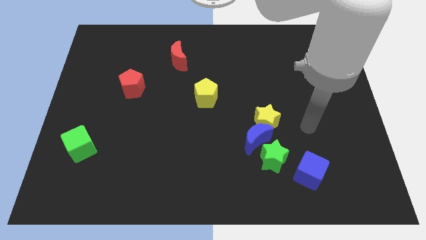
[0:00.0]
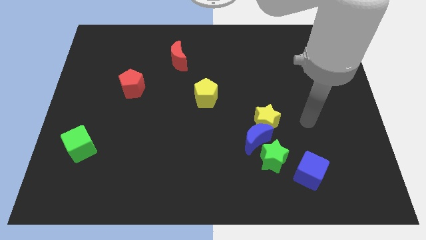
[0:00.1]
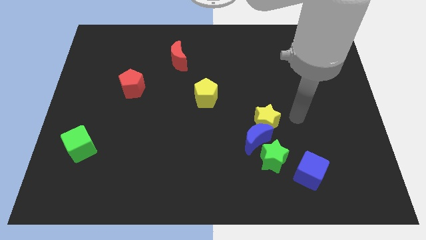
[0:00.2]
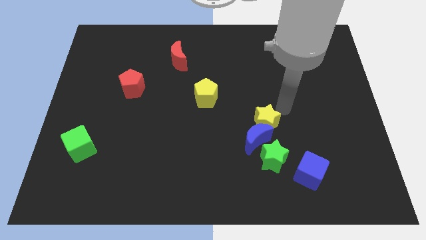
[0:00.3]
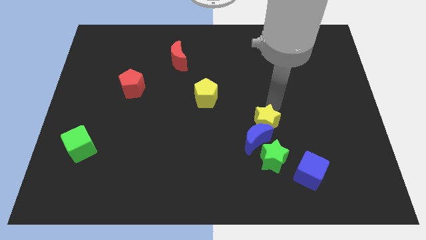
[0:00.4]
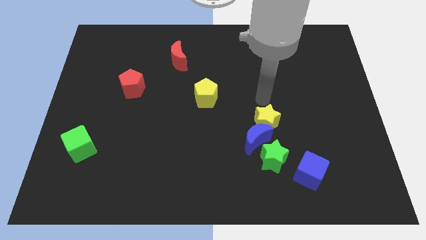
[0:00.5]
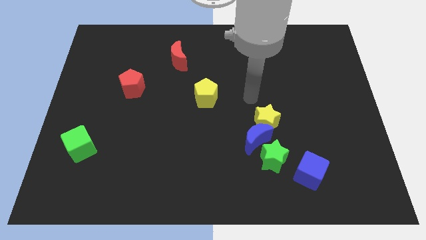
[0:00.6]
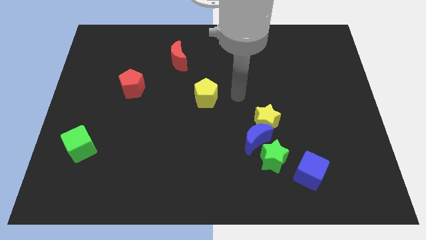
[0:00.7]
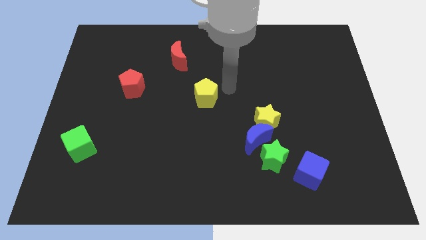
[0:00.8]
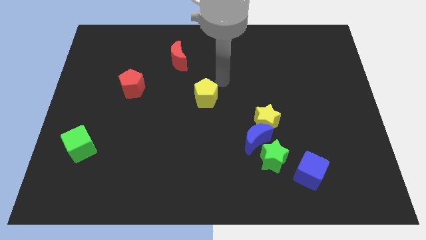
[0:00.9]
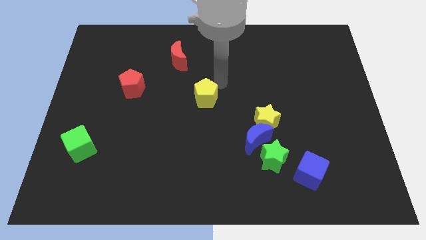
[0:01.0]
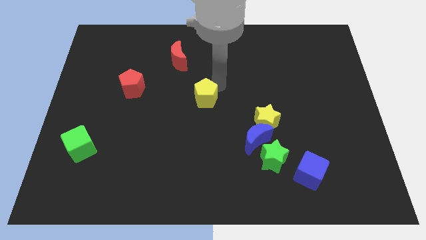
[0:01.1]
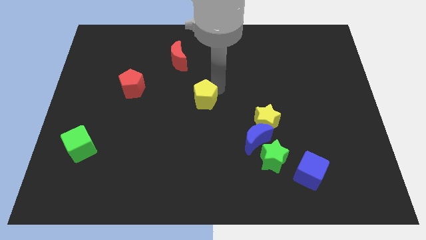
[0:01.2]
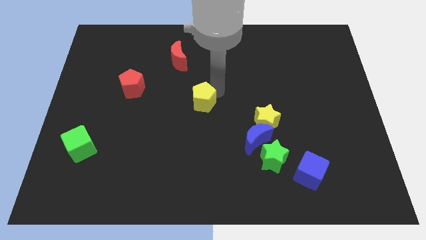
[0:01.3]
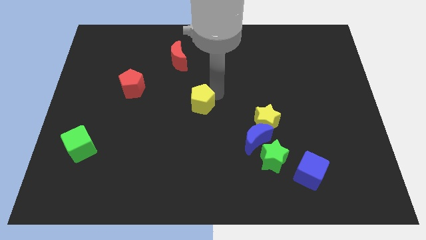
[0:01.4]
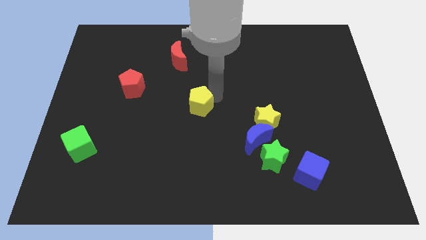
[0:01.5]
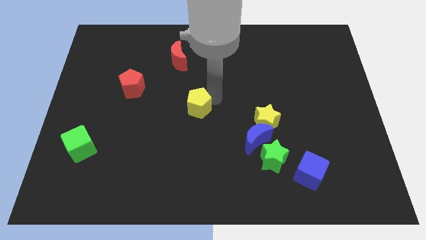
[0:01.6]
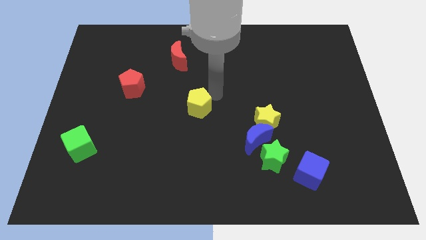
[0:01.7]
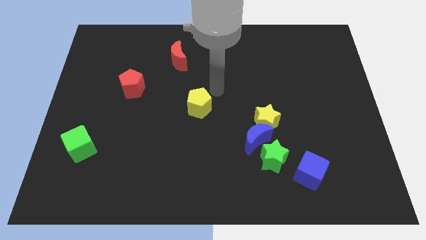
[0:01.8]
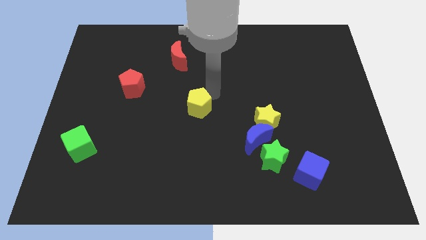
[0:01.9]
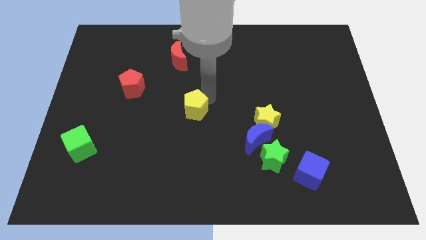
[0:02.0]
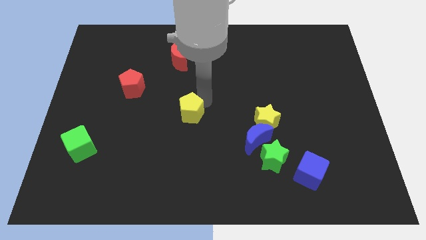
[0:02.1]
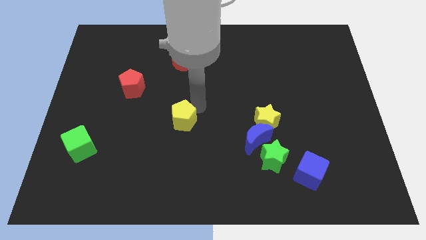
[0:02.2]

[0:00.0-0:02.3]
slightly move the yellow pentagon downwards and to the left diagonally

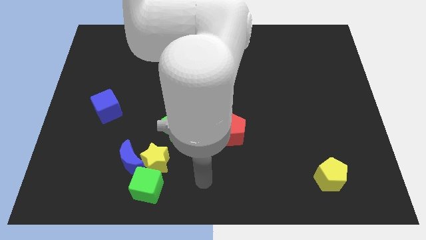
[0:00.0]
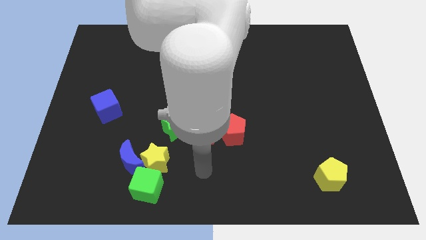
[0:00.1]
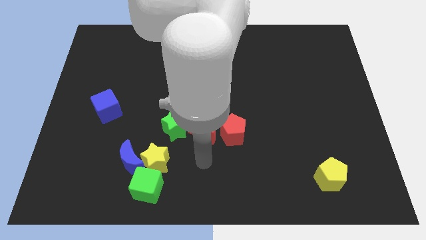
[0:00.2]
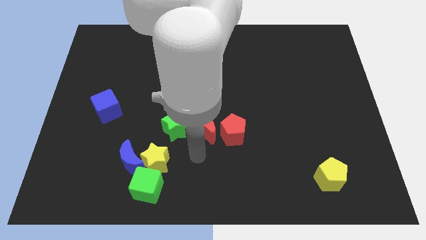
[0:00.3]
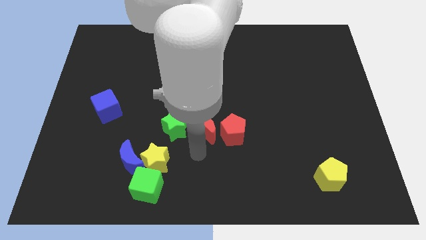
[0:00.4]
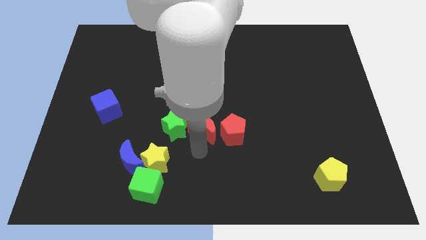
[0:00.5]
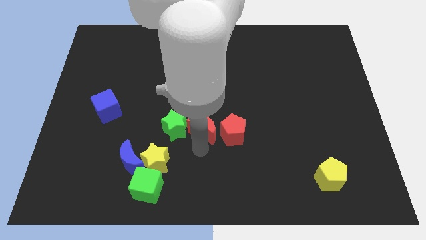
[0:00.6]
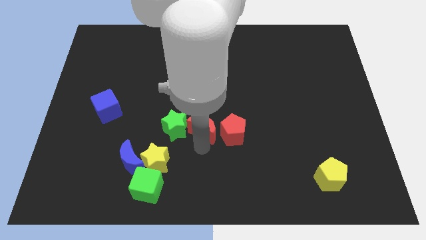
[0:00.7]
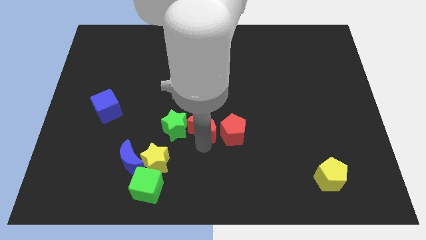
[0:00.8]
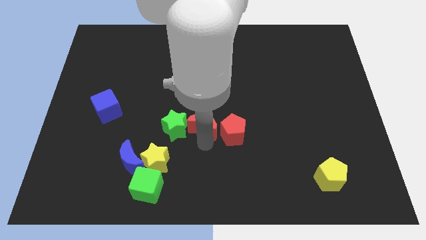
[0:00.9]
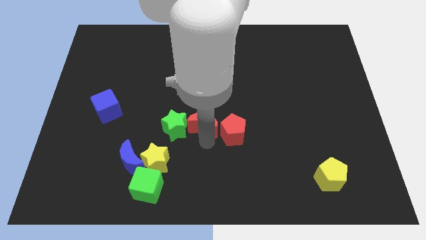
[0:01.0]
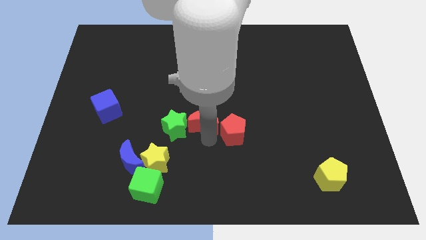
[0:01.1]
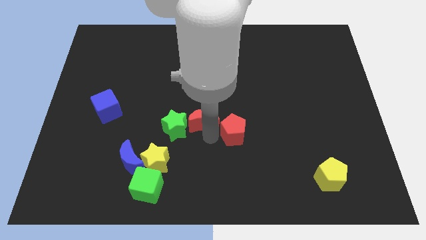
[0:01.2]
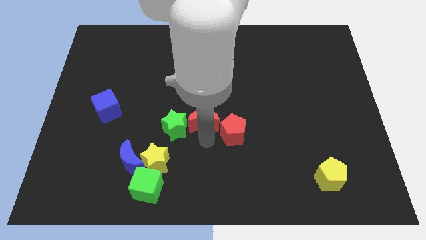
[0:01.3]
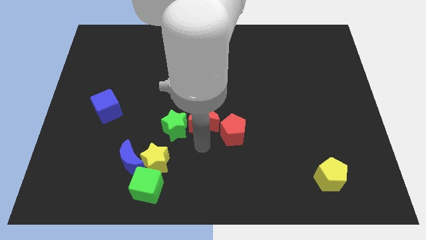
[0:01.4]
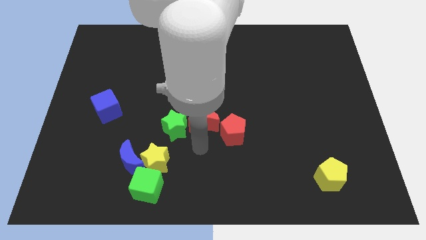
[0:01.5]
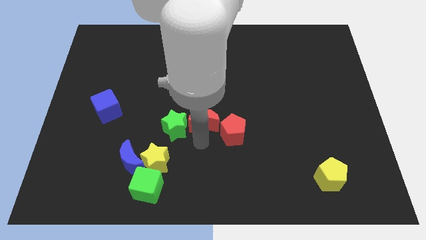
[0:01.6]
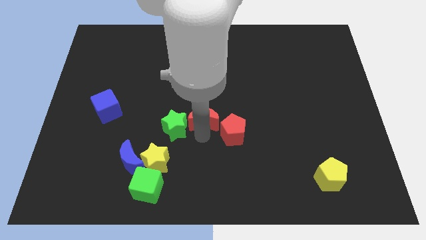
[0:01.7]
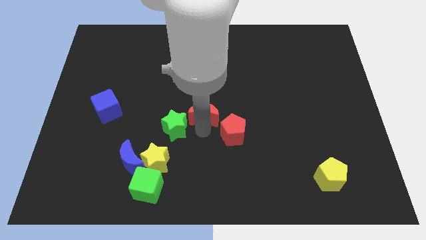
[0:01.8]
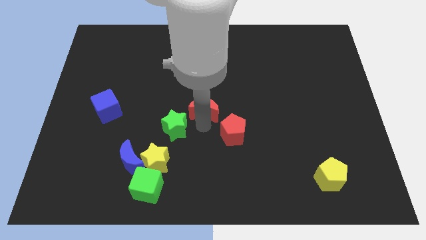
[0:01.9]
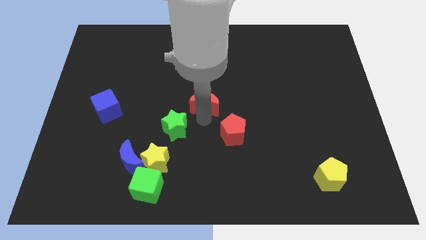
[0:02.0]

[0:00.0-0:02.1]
slide the red moon upwards a little bit

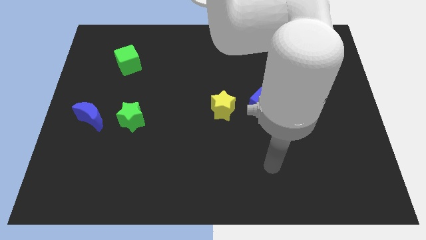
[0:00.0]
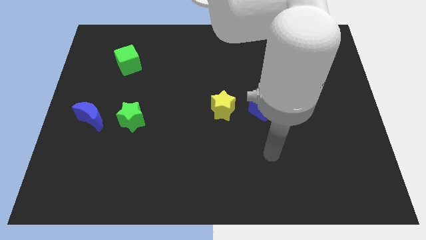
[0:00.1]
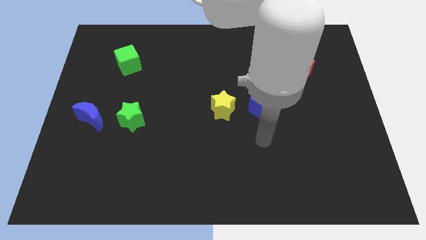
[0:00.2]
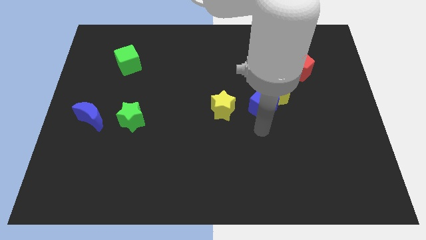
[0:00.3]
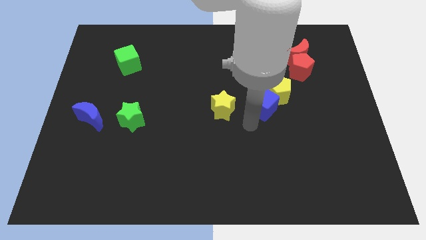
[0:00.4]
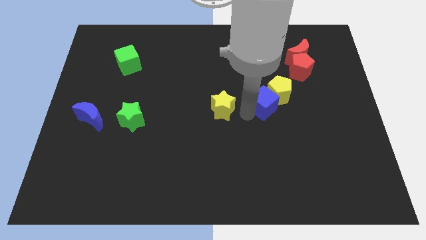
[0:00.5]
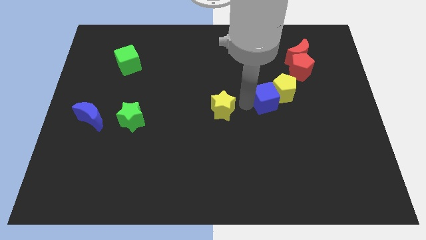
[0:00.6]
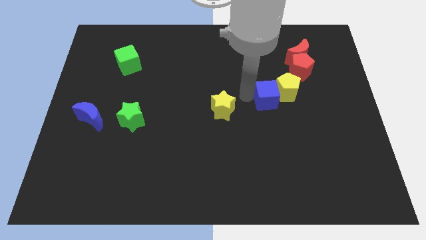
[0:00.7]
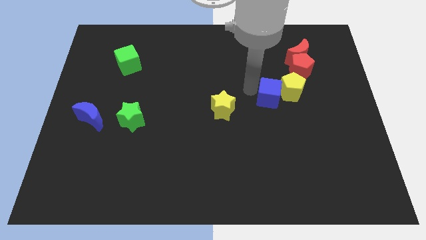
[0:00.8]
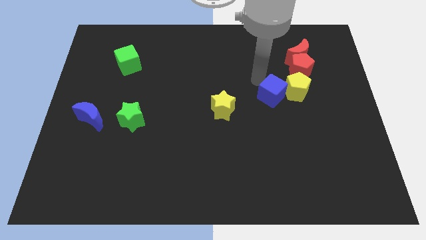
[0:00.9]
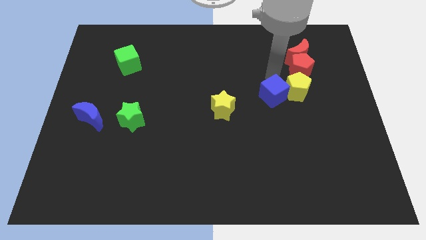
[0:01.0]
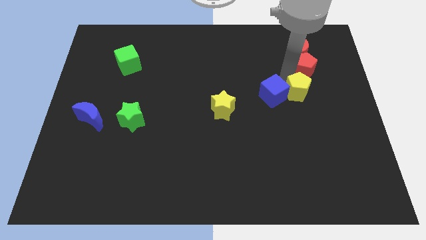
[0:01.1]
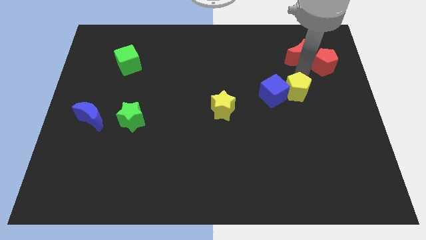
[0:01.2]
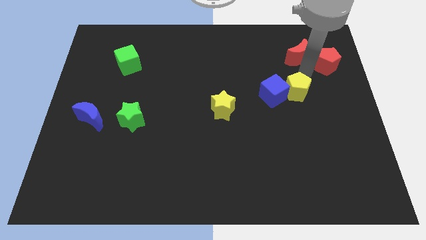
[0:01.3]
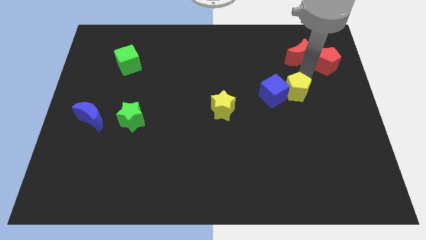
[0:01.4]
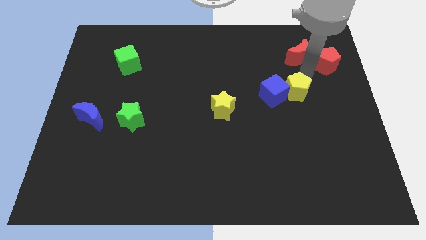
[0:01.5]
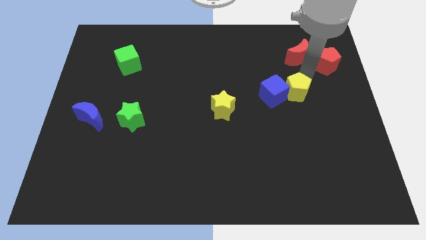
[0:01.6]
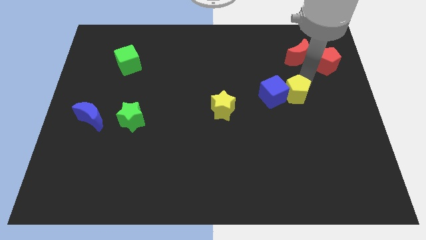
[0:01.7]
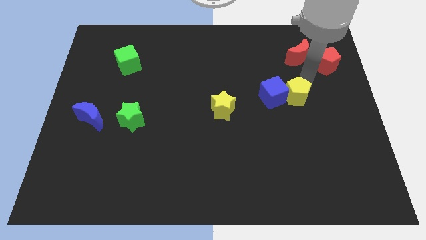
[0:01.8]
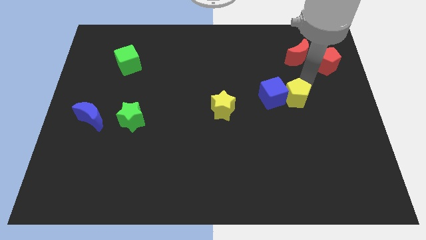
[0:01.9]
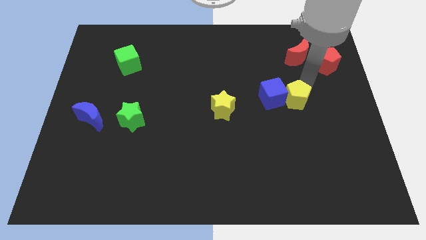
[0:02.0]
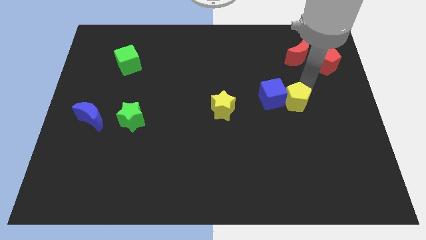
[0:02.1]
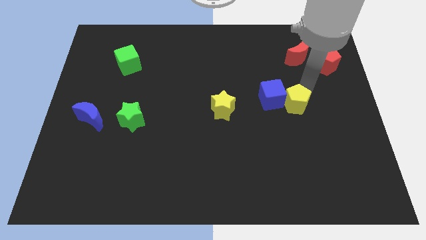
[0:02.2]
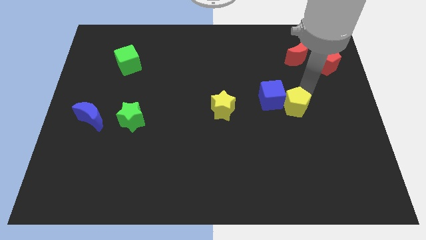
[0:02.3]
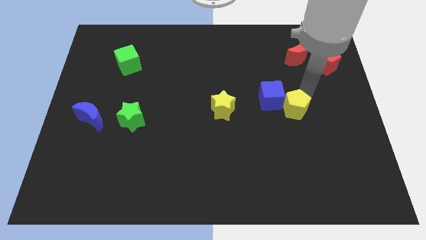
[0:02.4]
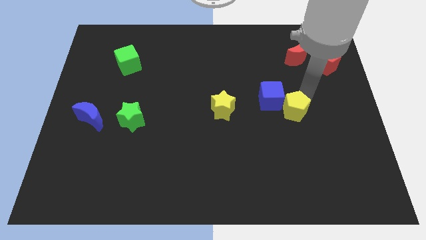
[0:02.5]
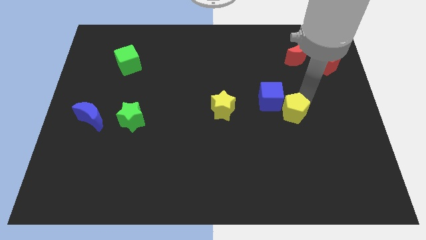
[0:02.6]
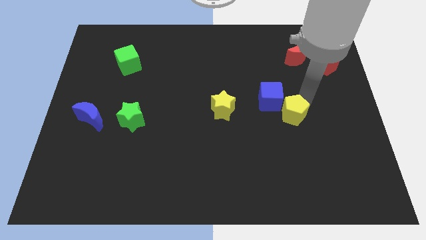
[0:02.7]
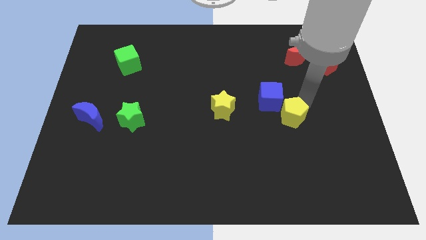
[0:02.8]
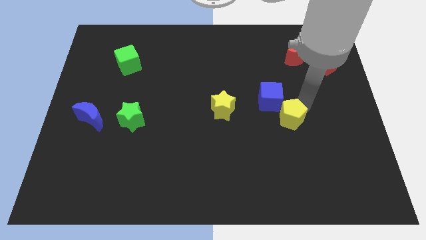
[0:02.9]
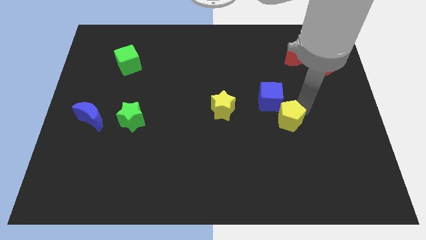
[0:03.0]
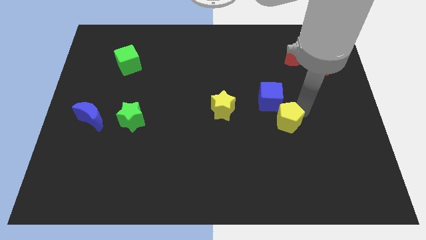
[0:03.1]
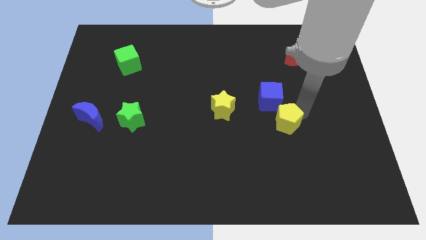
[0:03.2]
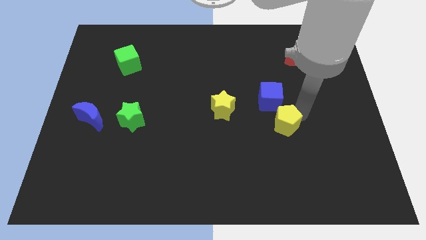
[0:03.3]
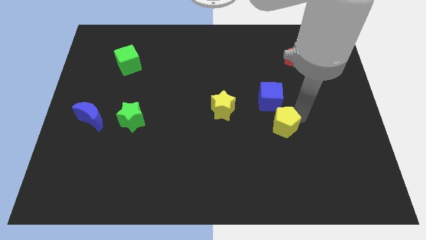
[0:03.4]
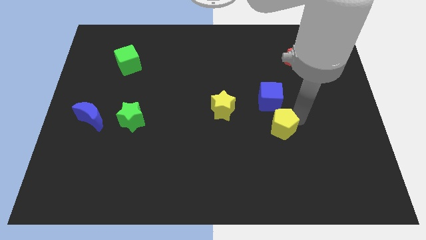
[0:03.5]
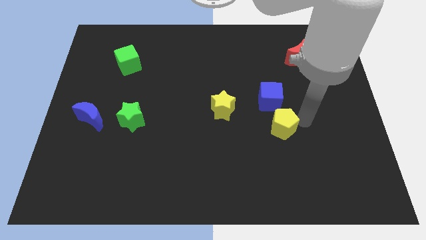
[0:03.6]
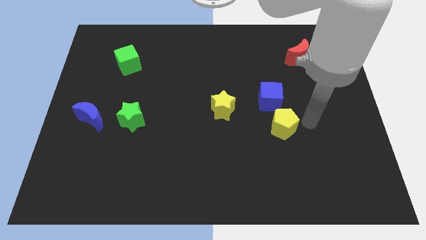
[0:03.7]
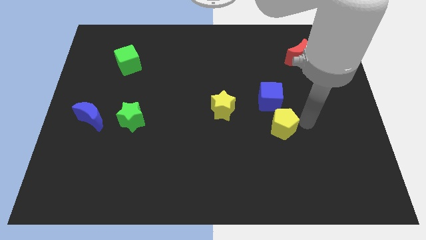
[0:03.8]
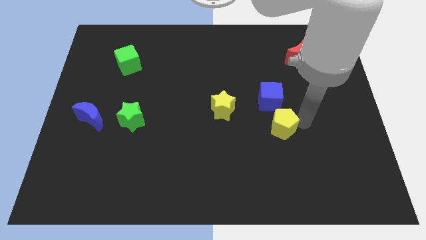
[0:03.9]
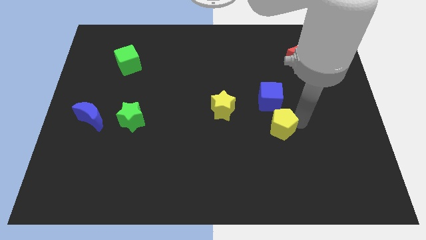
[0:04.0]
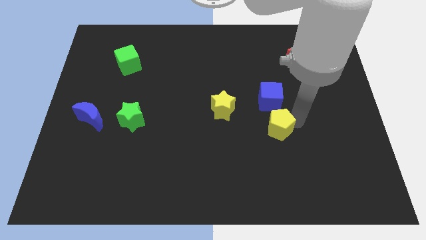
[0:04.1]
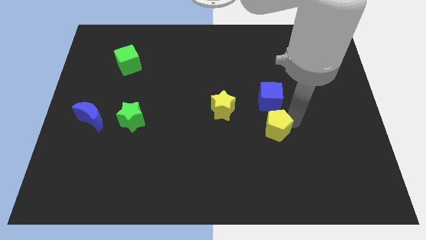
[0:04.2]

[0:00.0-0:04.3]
slide the yellow pentagon a little bit downwards and then left
